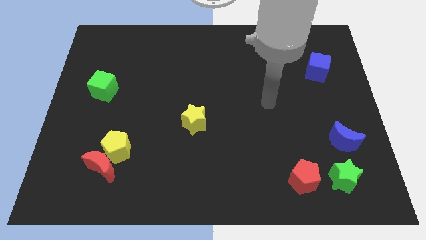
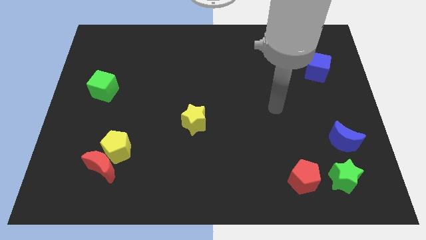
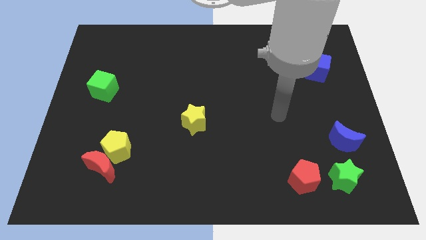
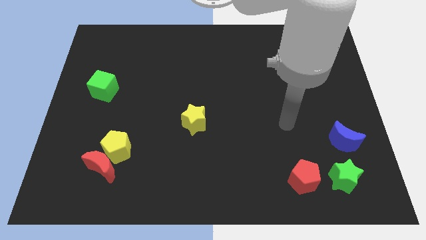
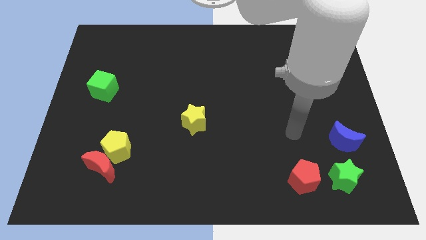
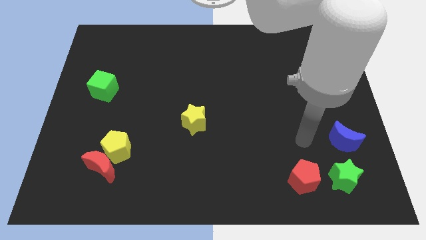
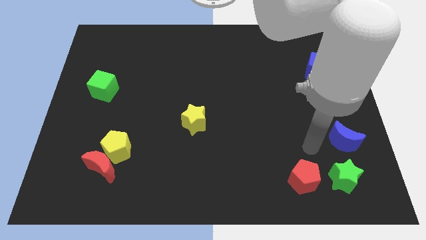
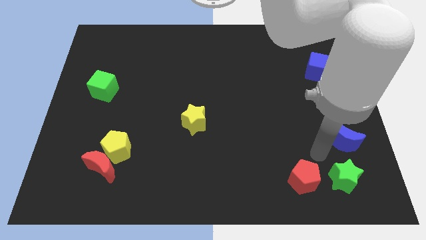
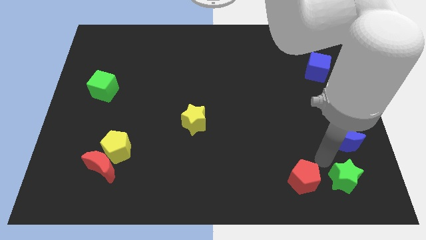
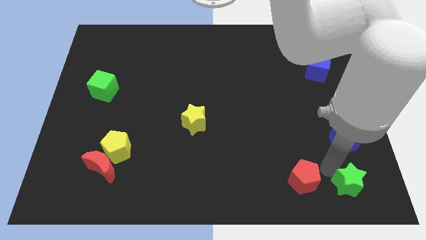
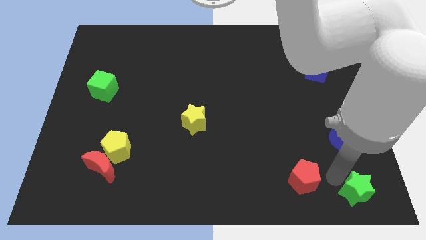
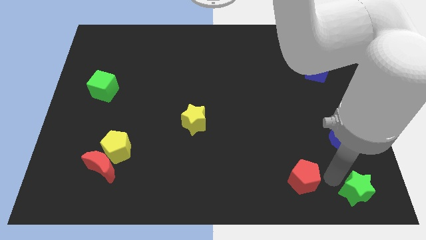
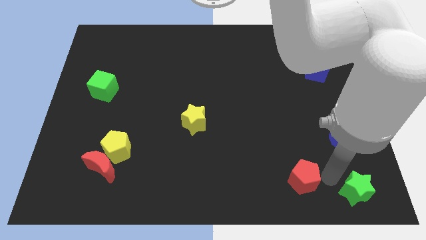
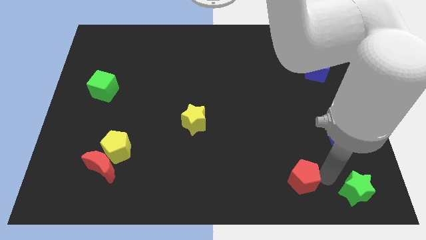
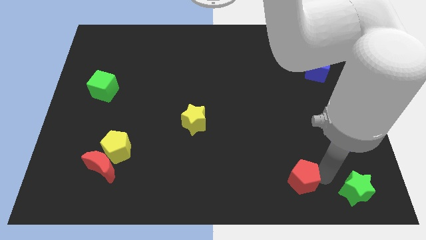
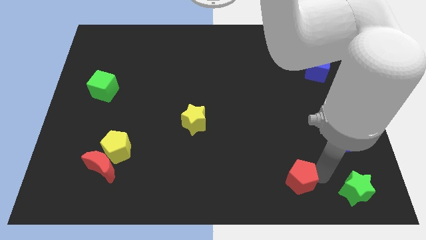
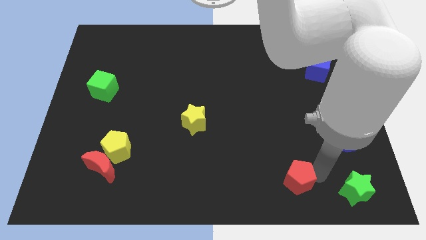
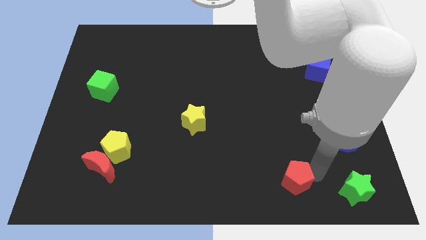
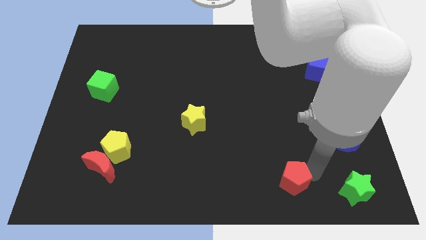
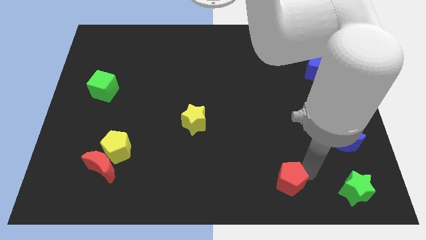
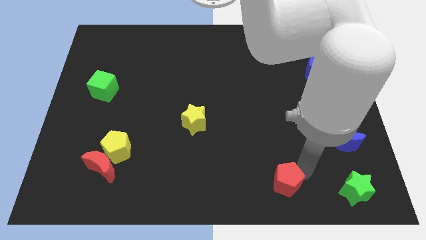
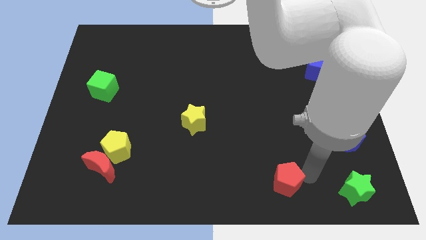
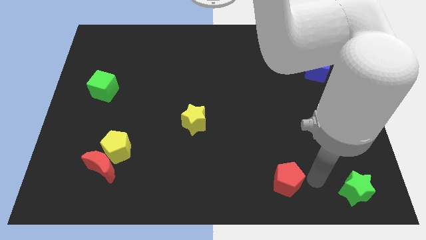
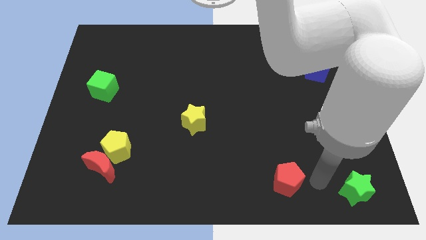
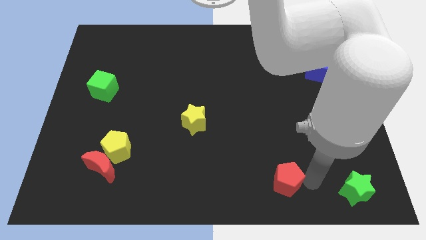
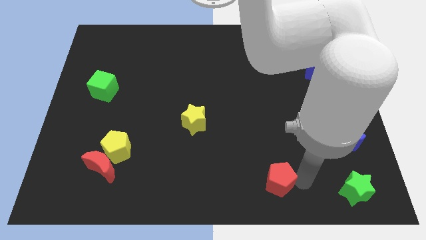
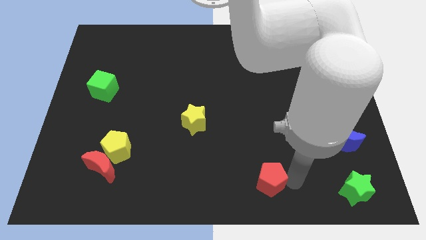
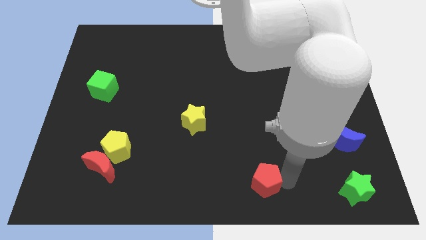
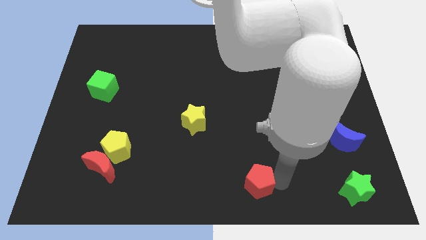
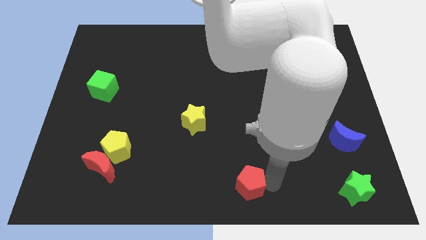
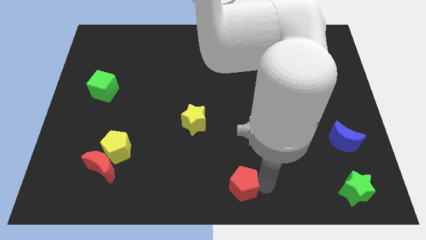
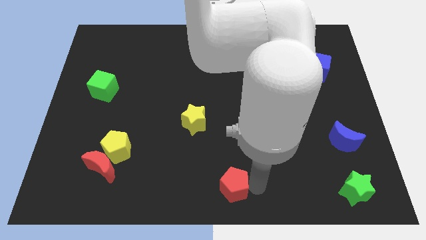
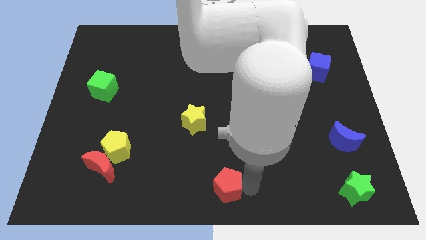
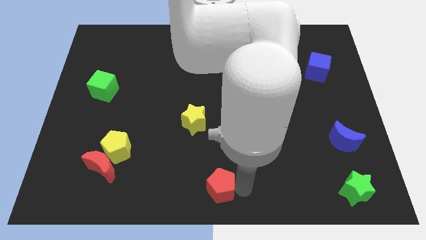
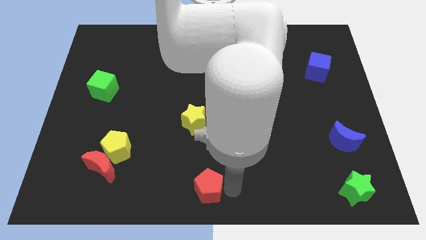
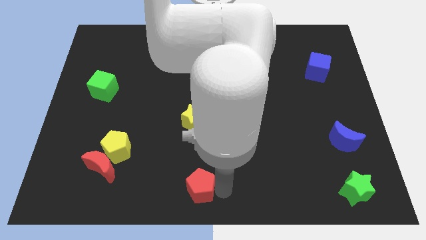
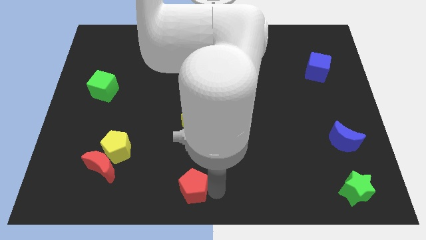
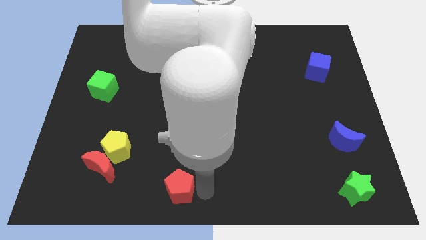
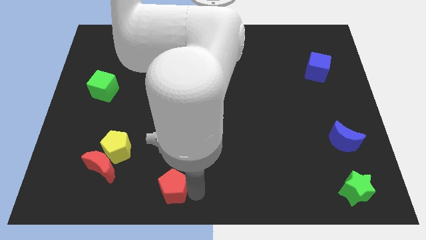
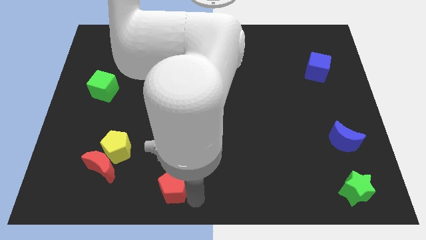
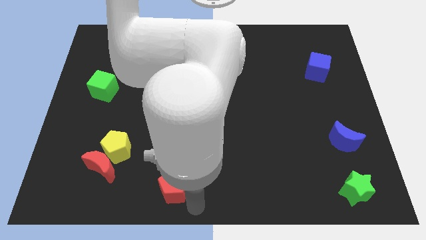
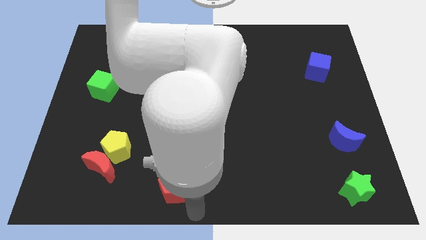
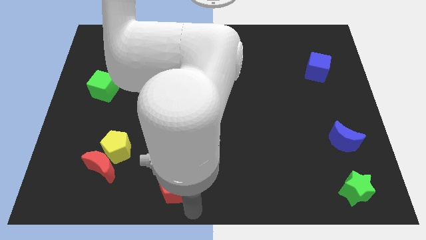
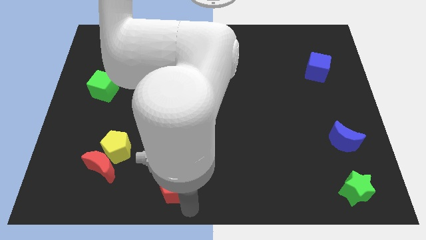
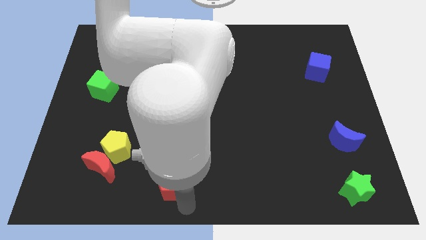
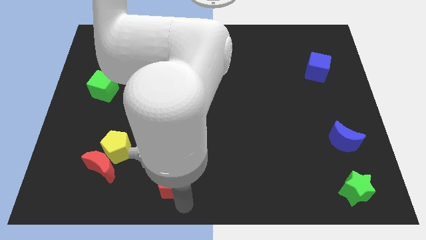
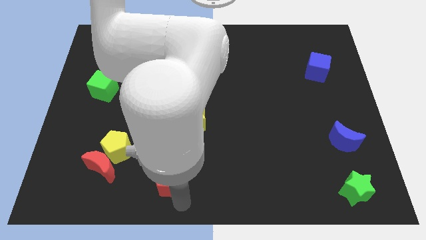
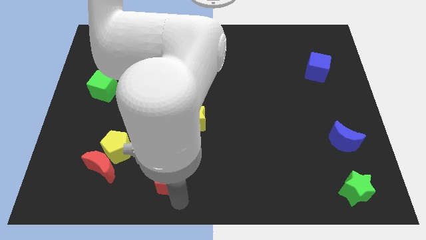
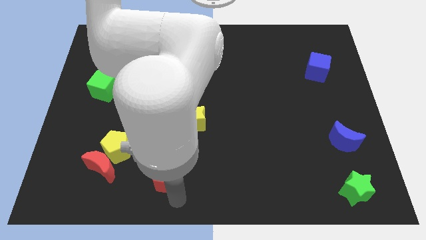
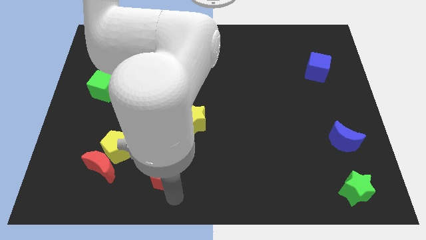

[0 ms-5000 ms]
push the red pentagon diagonally down and to the right of the yellow pentagon

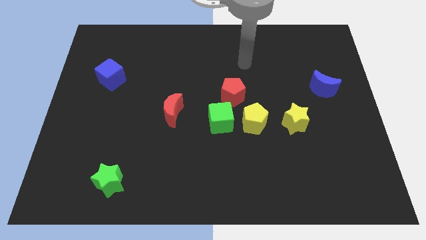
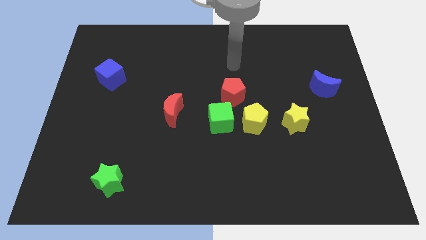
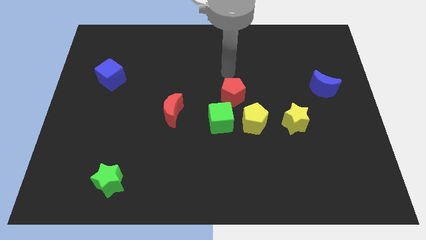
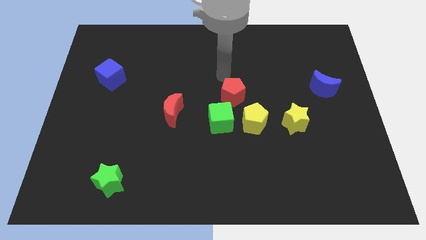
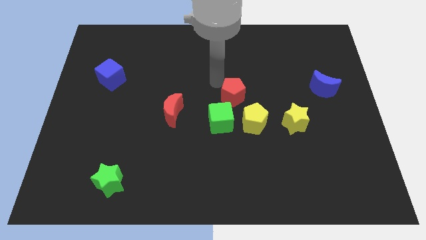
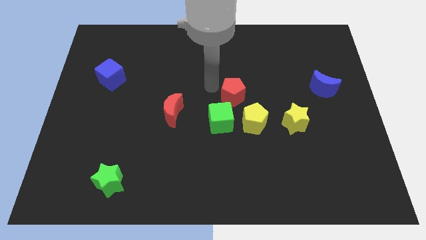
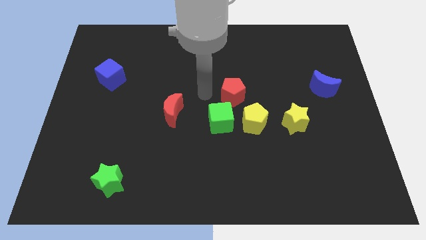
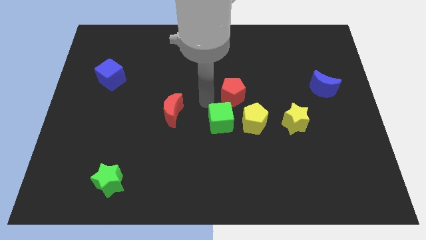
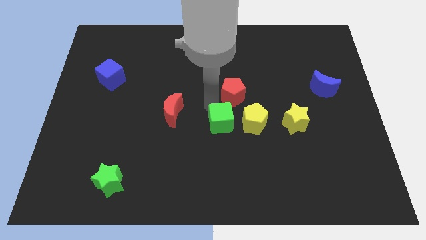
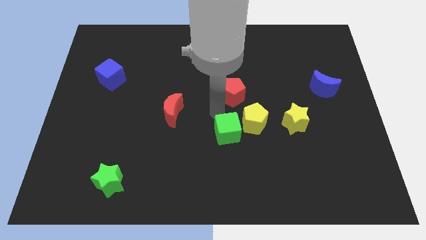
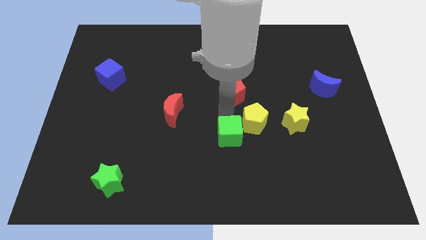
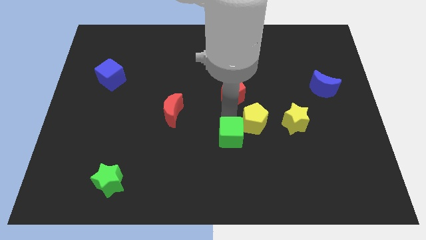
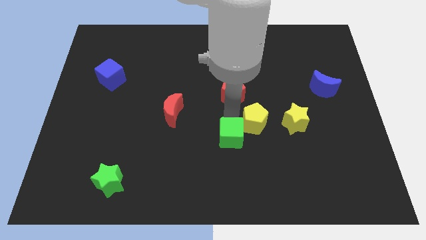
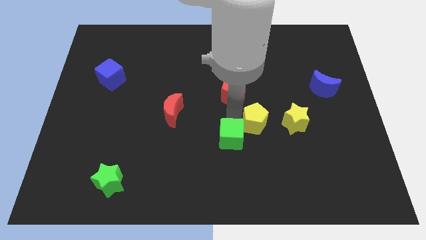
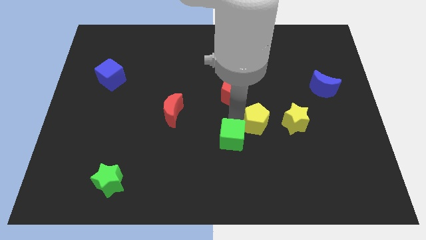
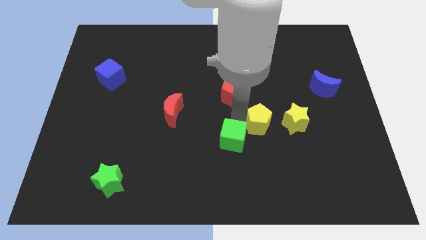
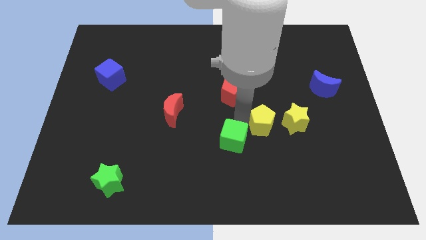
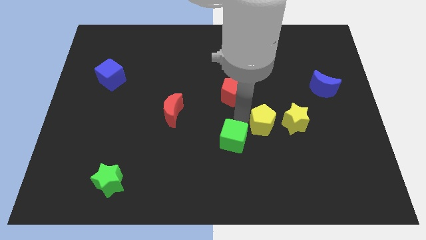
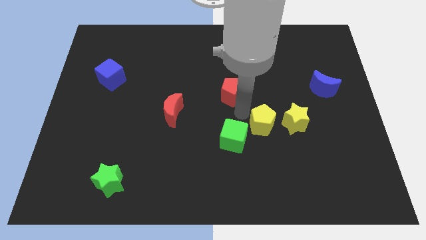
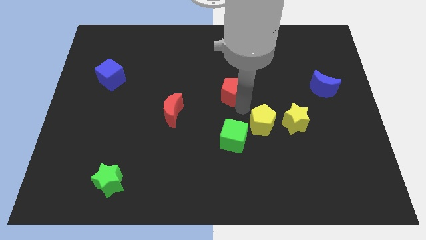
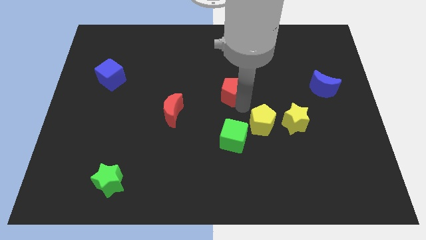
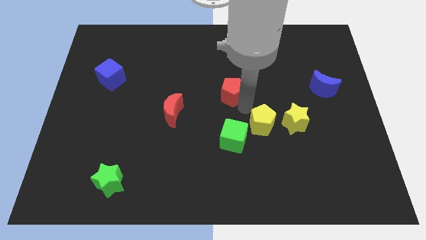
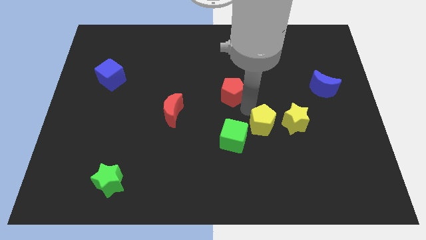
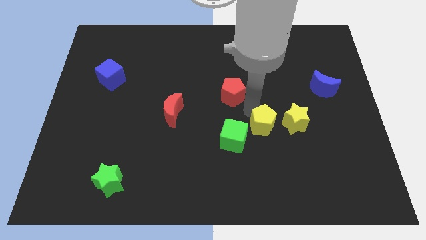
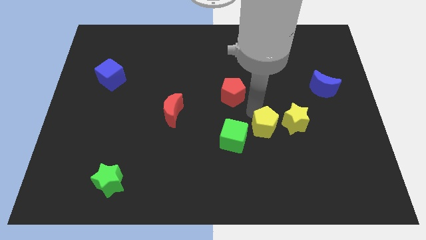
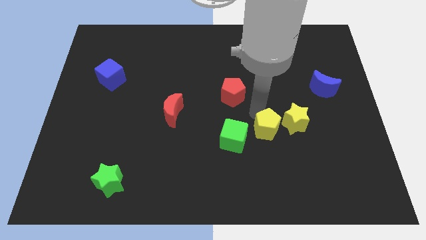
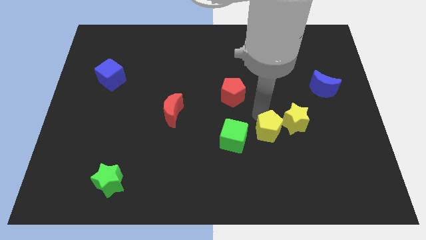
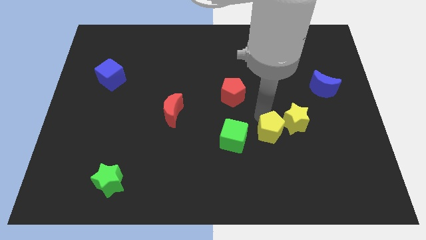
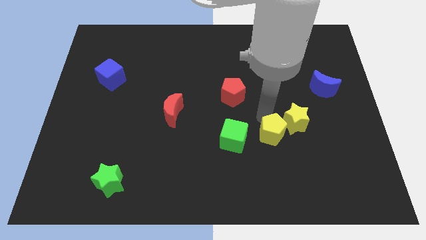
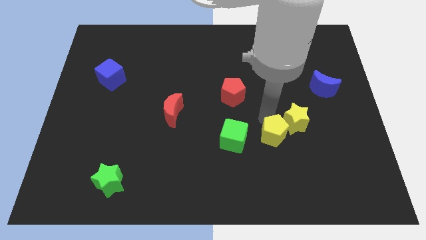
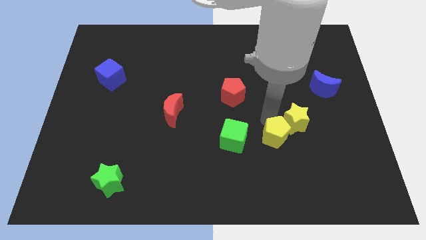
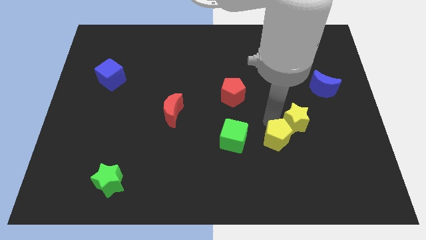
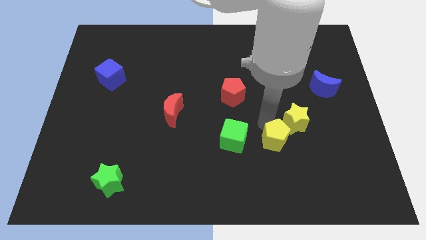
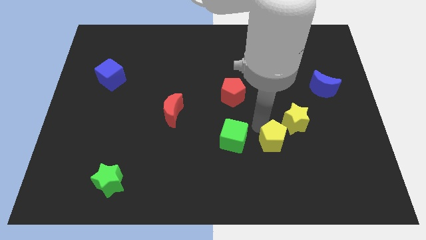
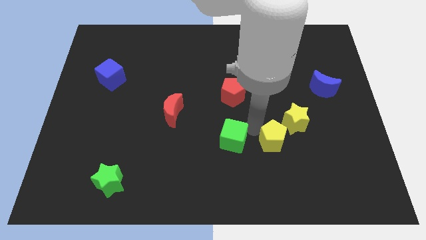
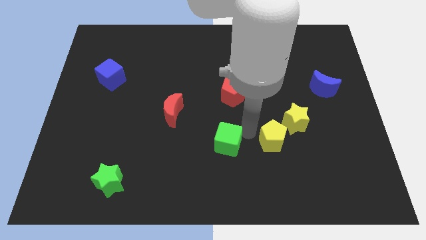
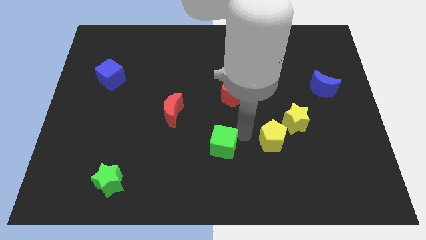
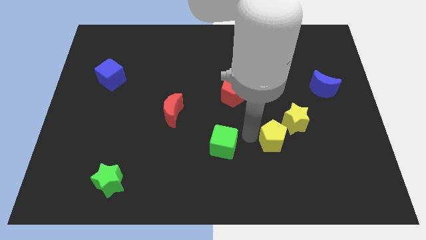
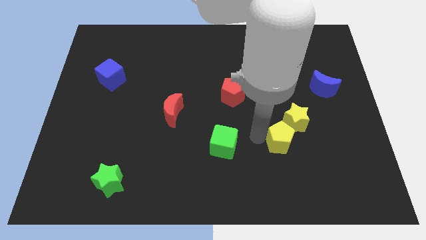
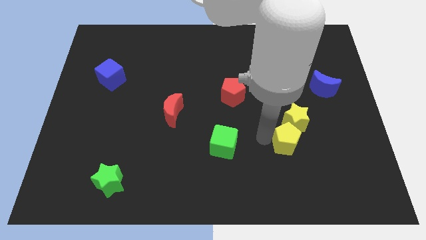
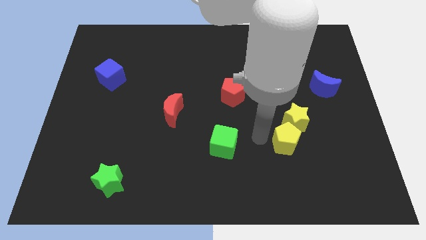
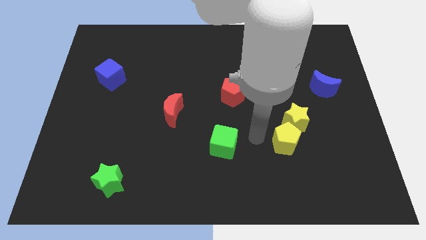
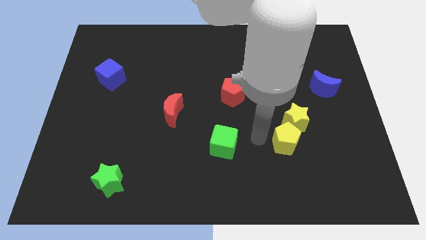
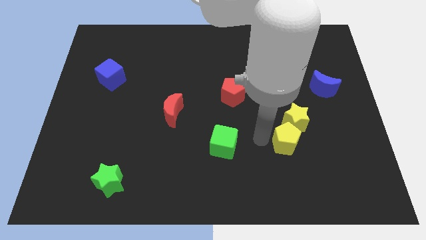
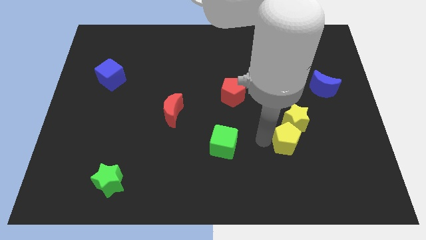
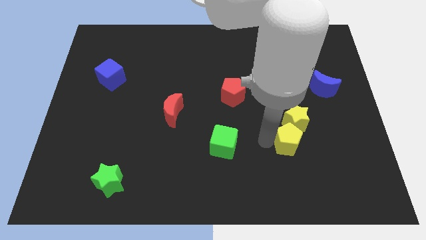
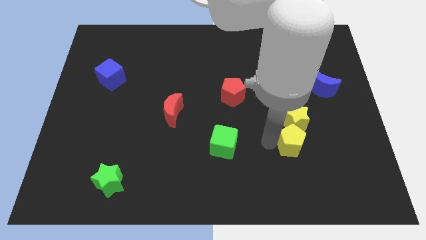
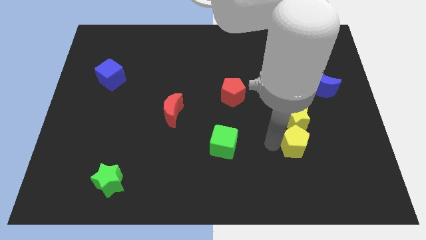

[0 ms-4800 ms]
put the yellow pentagon diagonally down and to the right of the yellow star
